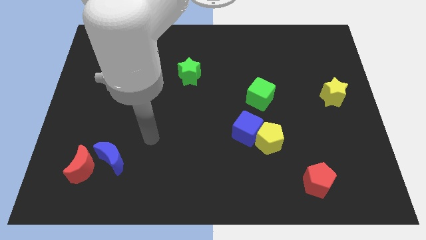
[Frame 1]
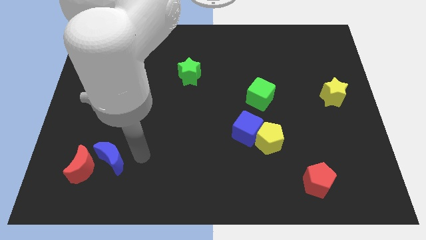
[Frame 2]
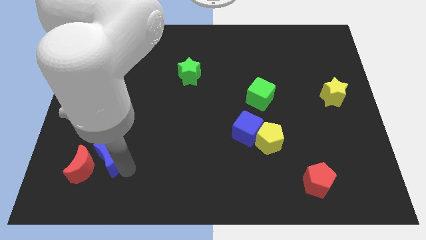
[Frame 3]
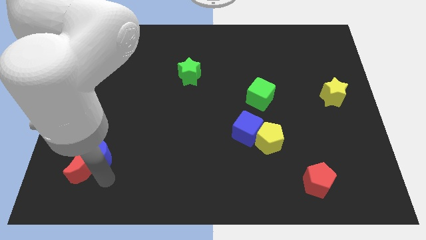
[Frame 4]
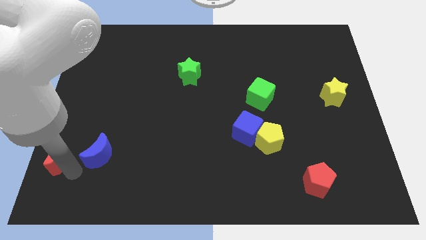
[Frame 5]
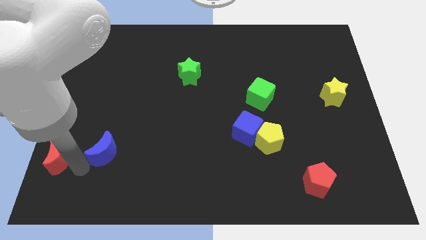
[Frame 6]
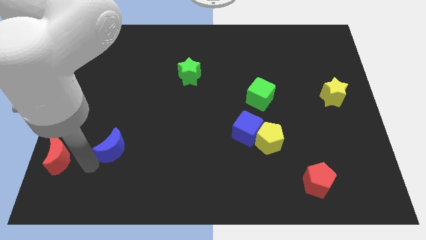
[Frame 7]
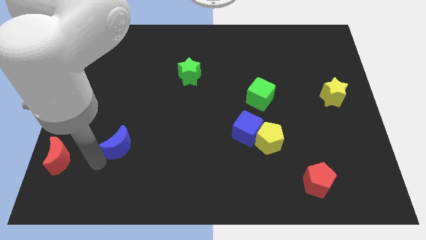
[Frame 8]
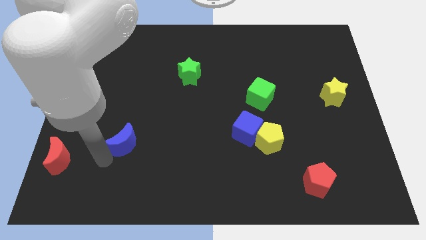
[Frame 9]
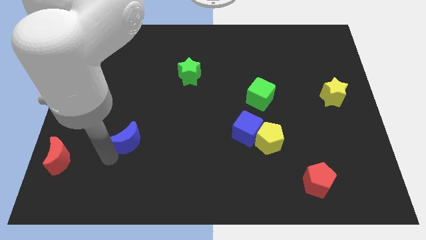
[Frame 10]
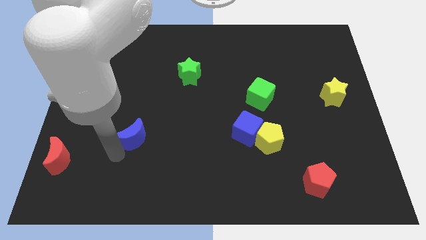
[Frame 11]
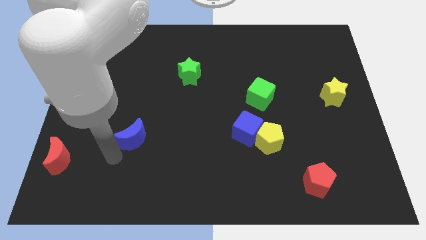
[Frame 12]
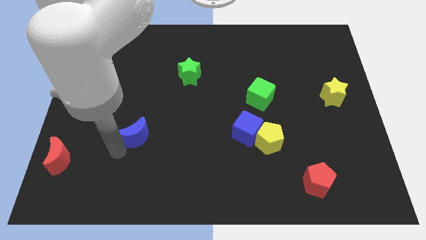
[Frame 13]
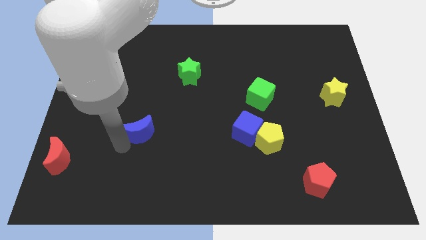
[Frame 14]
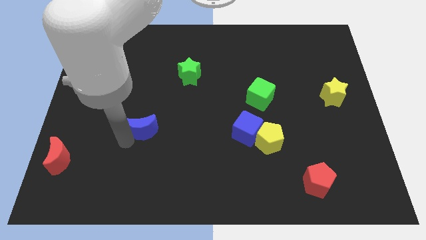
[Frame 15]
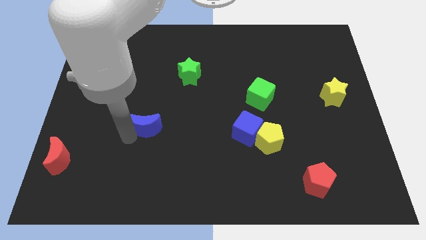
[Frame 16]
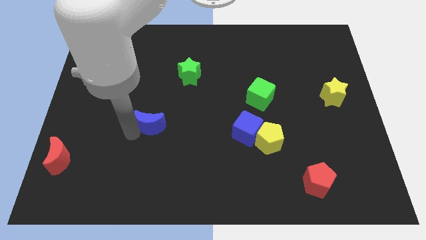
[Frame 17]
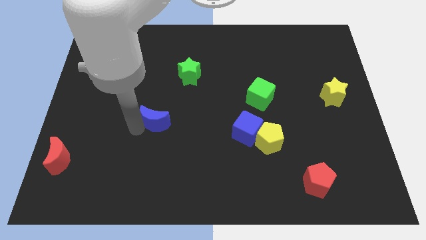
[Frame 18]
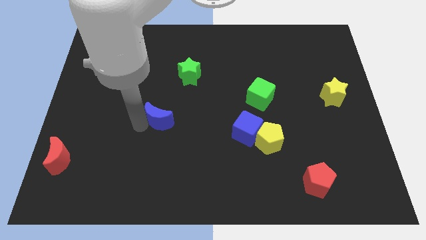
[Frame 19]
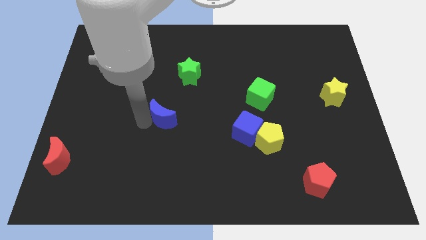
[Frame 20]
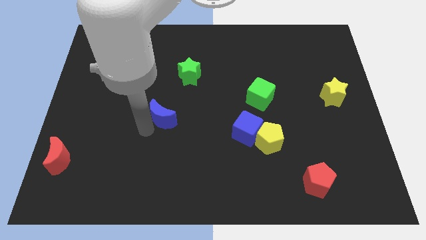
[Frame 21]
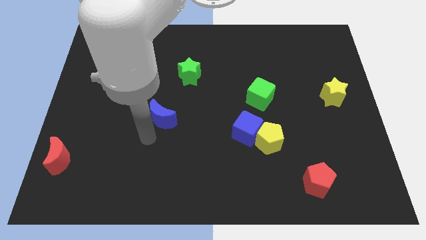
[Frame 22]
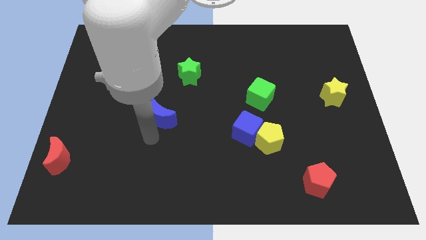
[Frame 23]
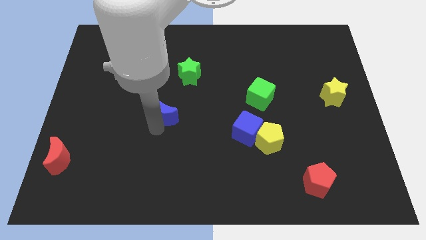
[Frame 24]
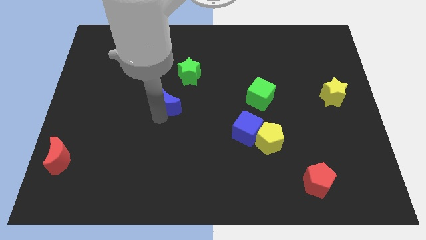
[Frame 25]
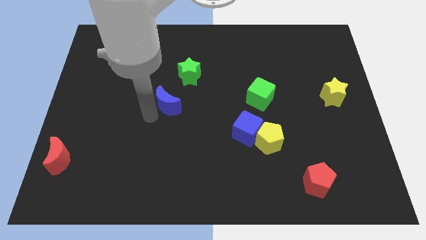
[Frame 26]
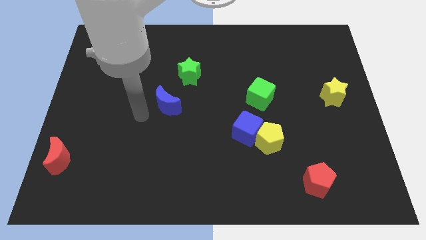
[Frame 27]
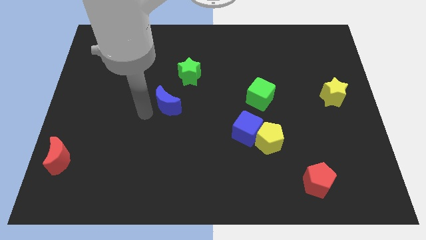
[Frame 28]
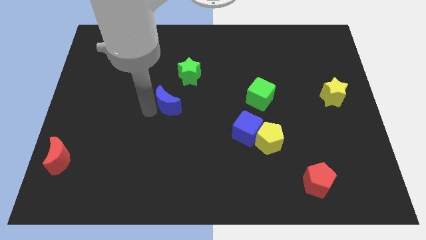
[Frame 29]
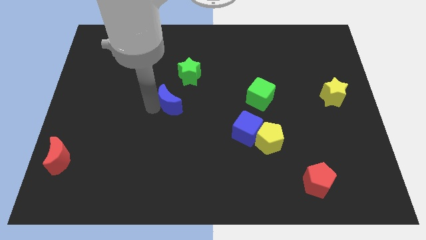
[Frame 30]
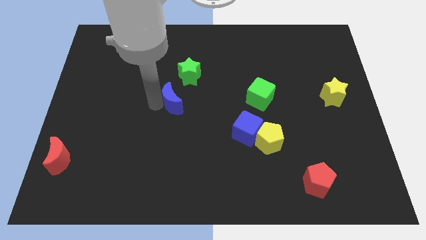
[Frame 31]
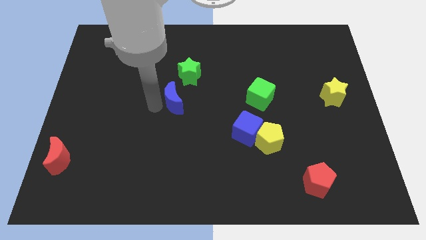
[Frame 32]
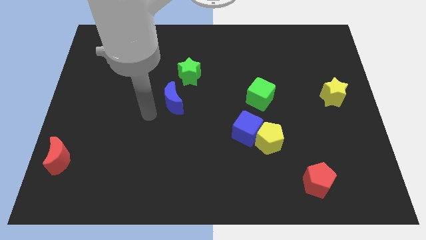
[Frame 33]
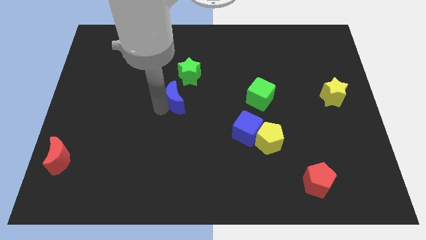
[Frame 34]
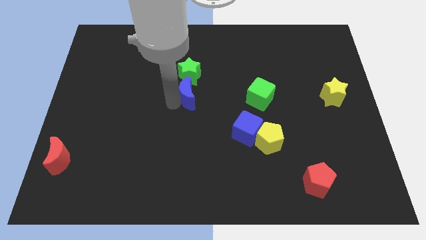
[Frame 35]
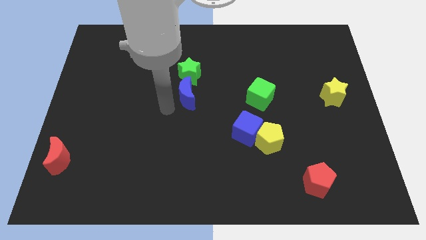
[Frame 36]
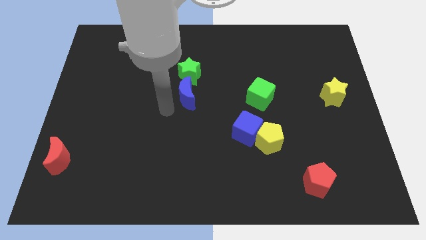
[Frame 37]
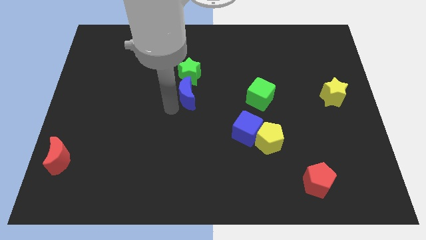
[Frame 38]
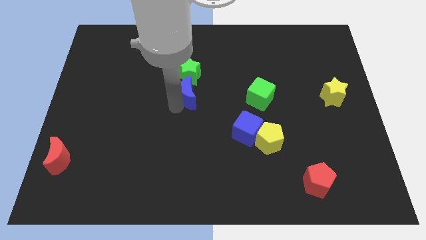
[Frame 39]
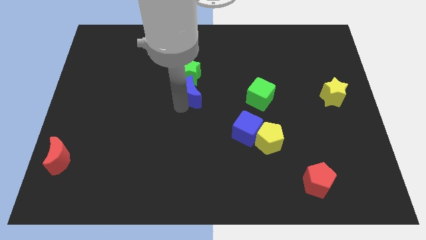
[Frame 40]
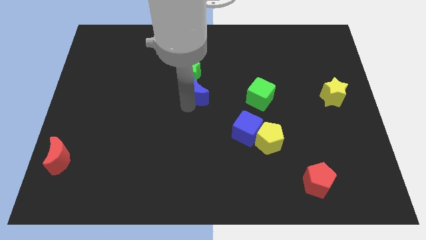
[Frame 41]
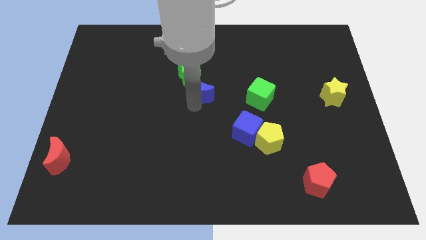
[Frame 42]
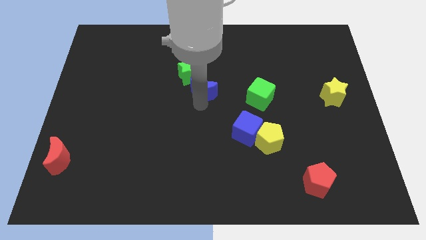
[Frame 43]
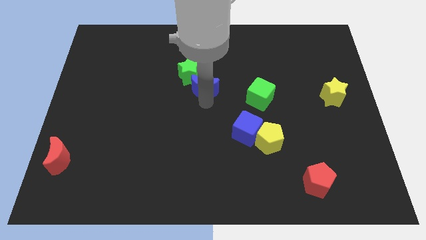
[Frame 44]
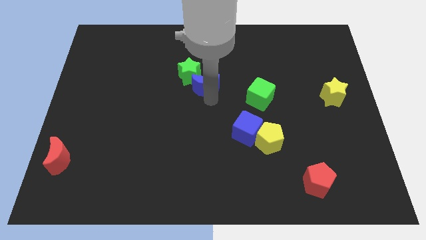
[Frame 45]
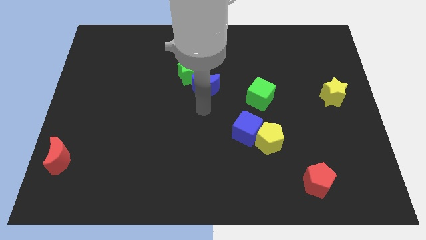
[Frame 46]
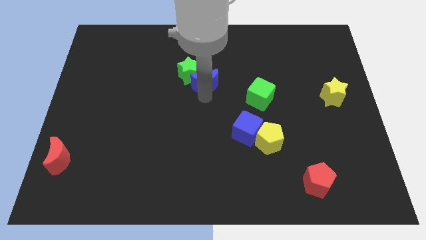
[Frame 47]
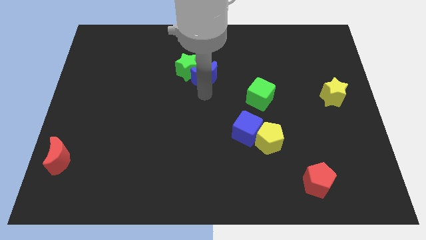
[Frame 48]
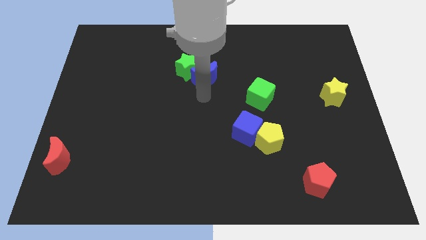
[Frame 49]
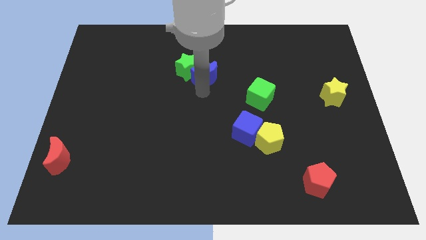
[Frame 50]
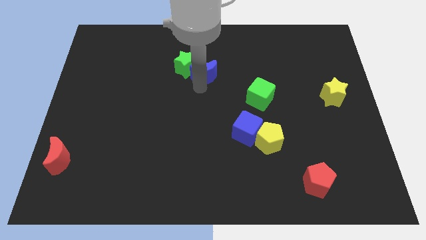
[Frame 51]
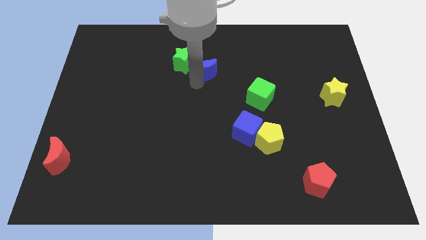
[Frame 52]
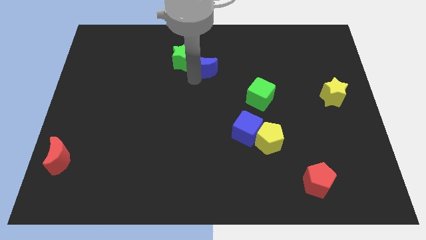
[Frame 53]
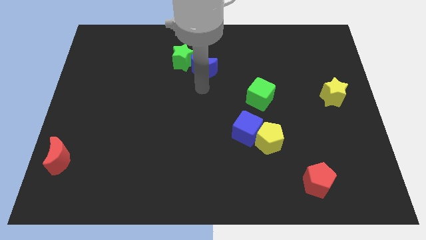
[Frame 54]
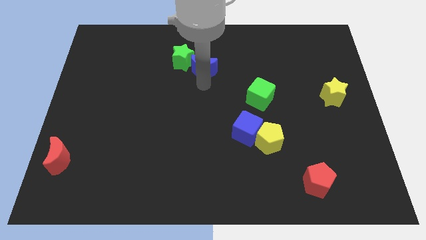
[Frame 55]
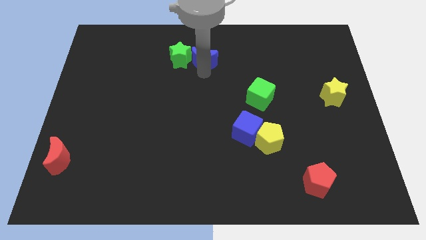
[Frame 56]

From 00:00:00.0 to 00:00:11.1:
put the blue moon diagonally up and to the right of the green star

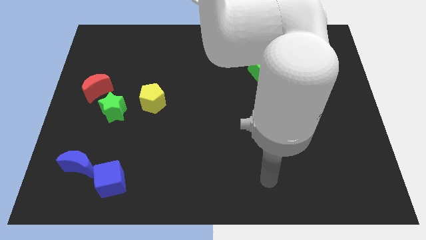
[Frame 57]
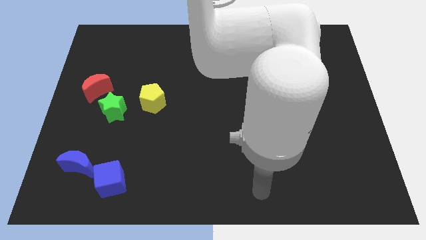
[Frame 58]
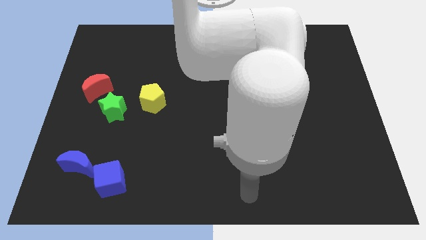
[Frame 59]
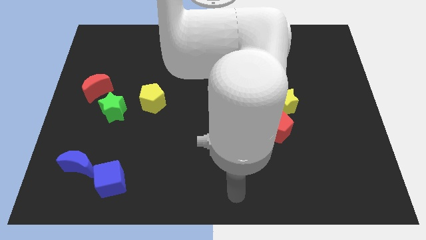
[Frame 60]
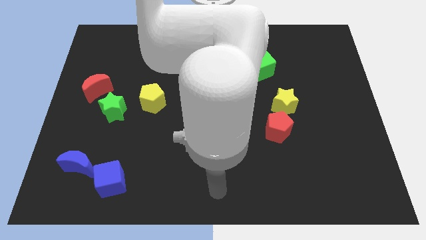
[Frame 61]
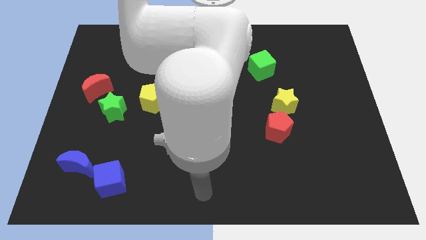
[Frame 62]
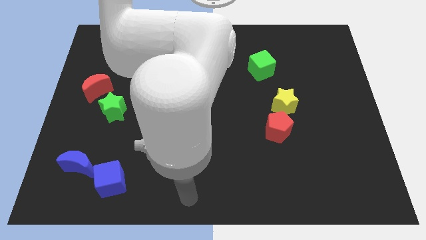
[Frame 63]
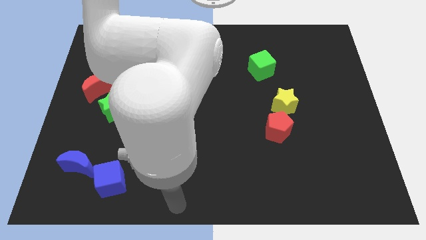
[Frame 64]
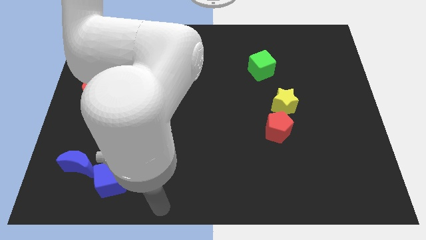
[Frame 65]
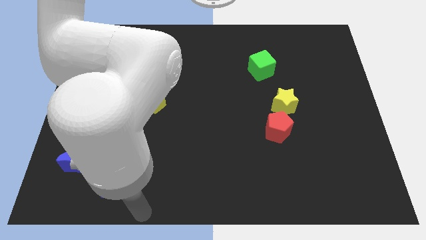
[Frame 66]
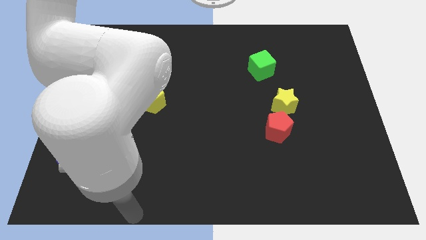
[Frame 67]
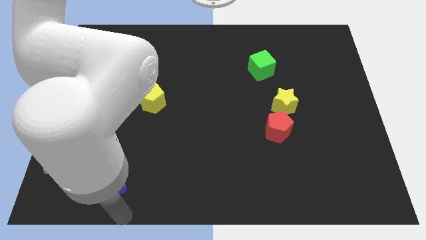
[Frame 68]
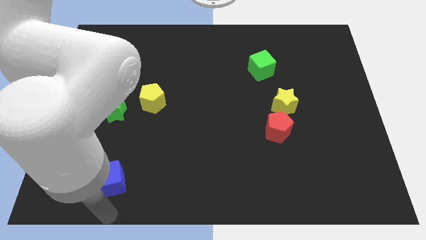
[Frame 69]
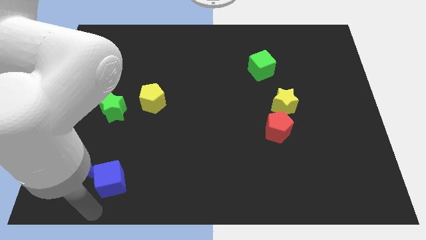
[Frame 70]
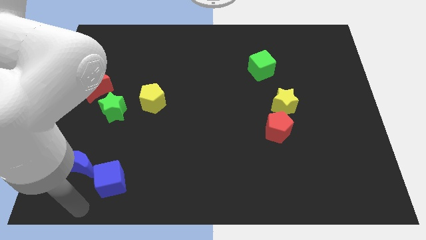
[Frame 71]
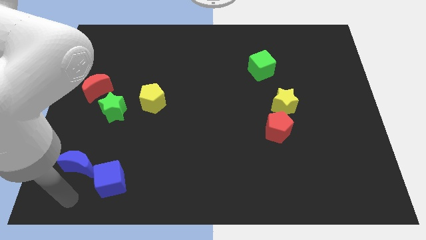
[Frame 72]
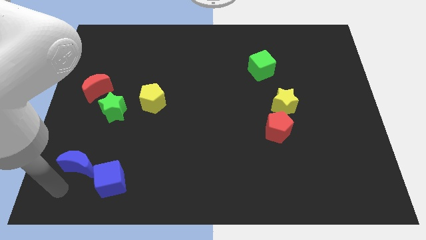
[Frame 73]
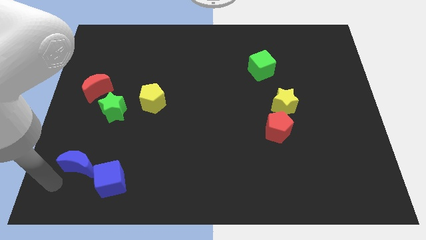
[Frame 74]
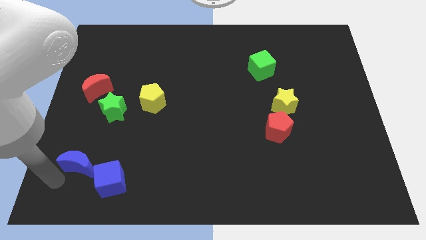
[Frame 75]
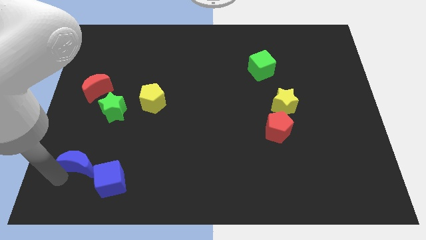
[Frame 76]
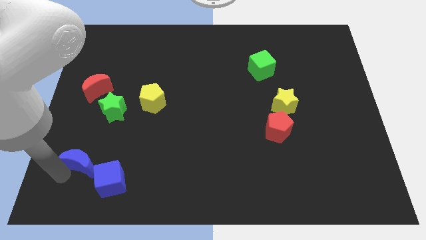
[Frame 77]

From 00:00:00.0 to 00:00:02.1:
push the blue moon below the green star
